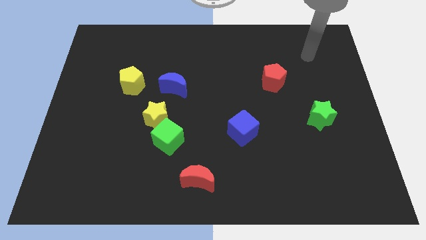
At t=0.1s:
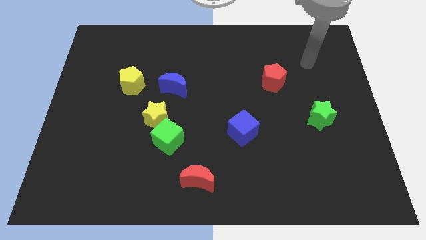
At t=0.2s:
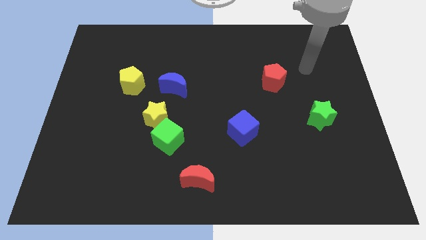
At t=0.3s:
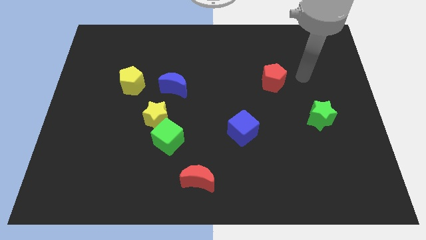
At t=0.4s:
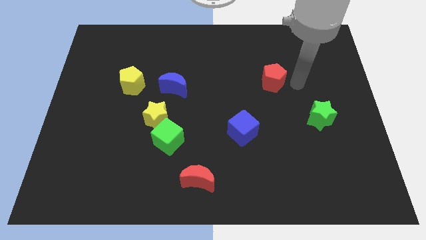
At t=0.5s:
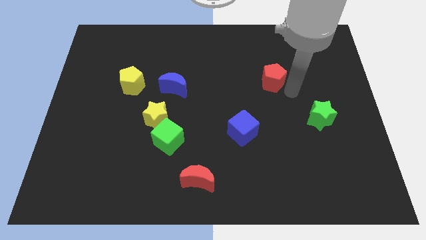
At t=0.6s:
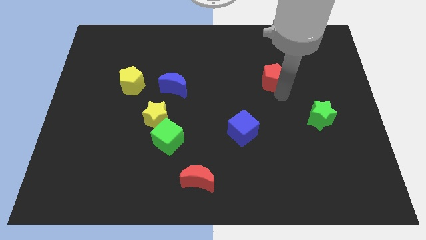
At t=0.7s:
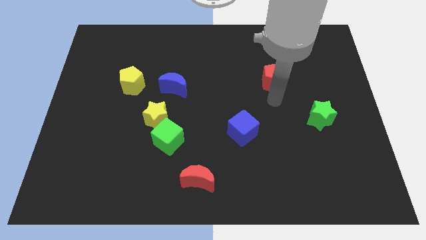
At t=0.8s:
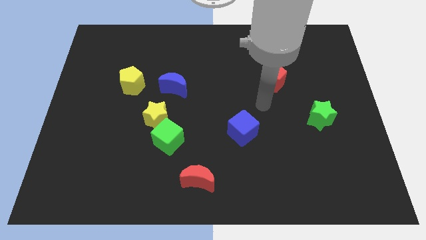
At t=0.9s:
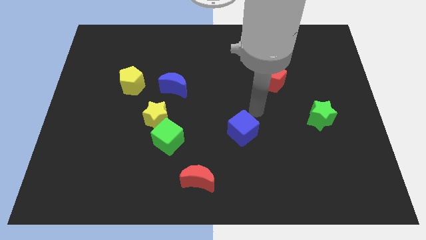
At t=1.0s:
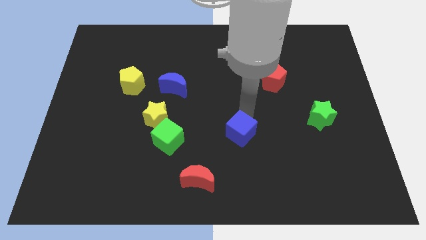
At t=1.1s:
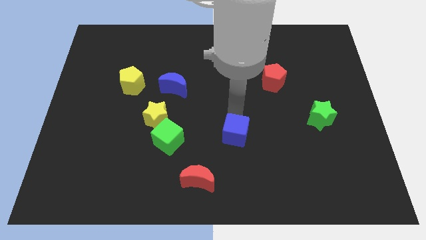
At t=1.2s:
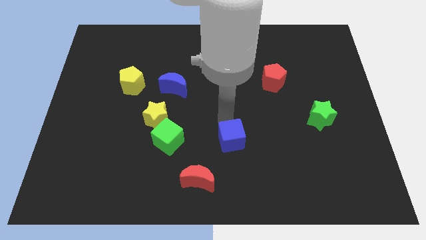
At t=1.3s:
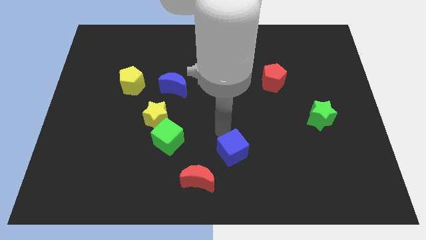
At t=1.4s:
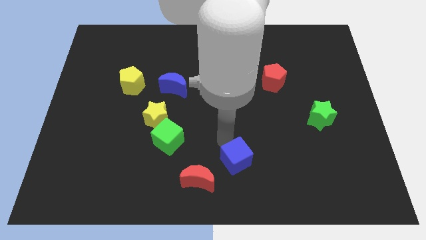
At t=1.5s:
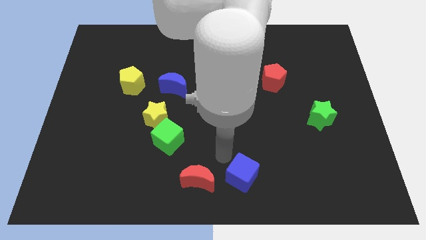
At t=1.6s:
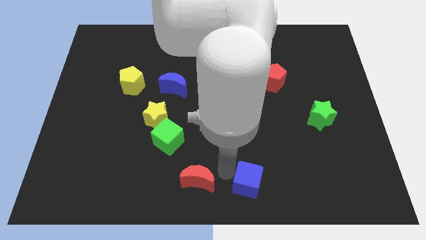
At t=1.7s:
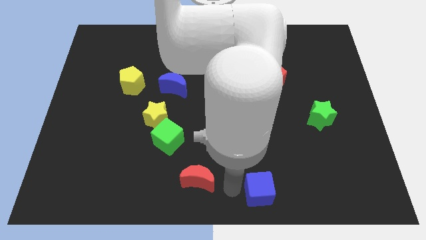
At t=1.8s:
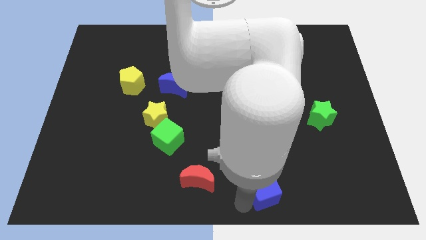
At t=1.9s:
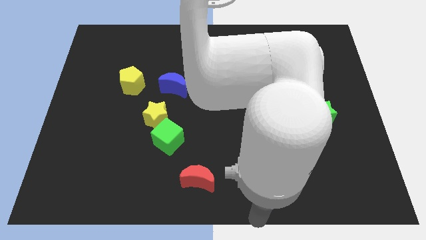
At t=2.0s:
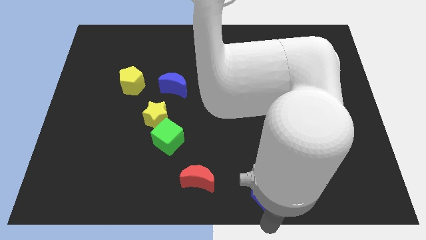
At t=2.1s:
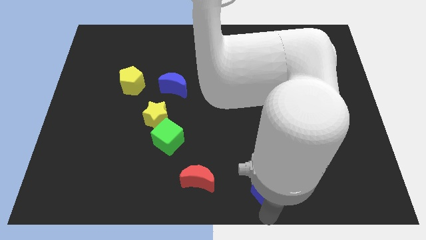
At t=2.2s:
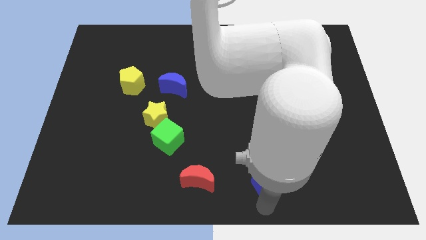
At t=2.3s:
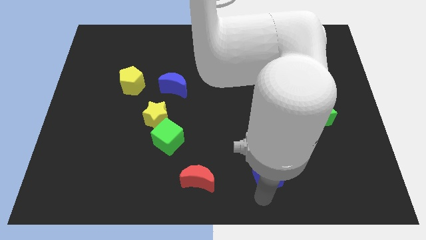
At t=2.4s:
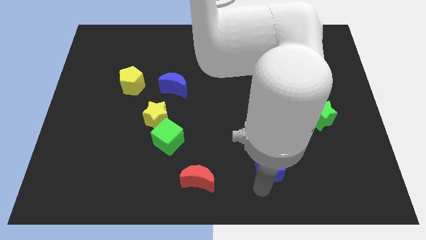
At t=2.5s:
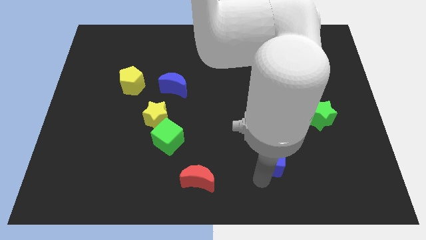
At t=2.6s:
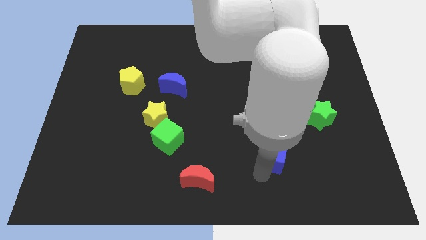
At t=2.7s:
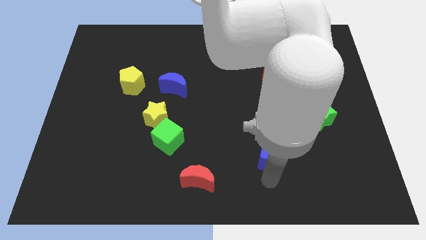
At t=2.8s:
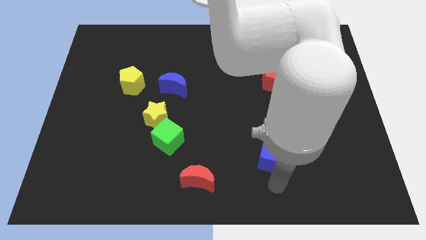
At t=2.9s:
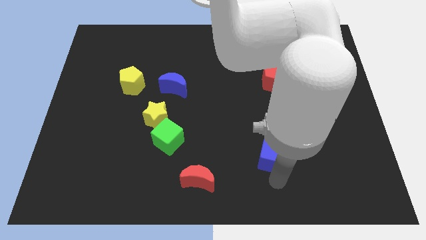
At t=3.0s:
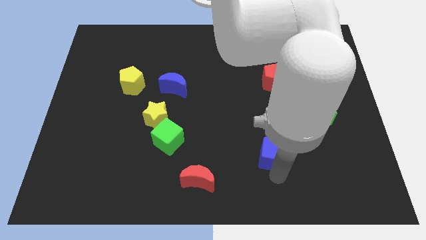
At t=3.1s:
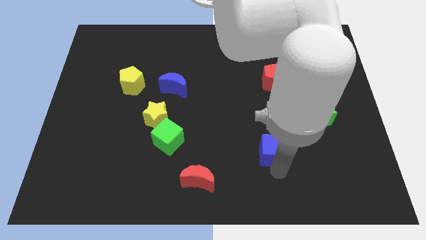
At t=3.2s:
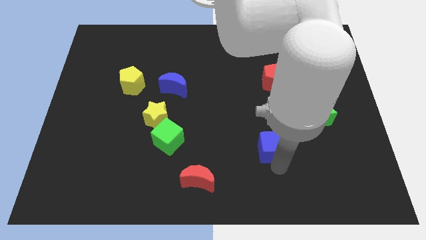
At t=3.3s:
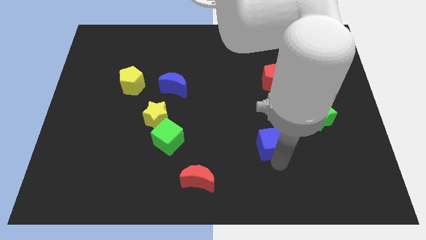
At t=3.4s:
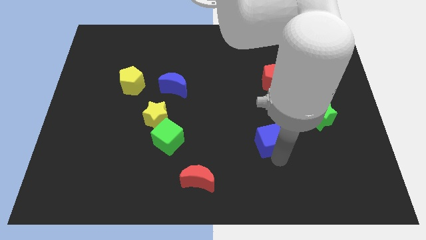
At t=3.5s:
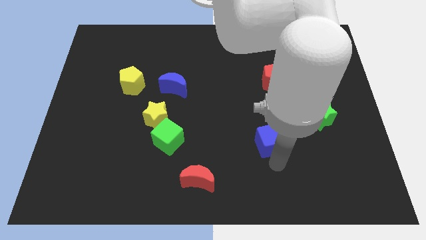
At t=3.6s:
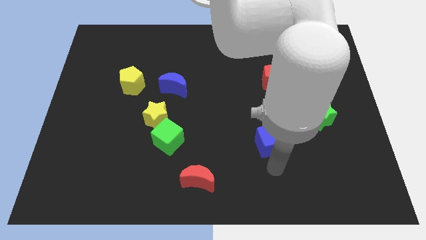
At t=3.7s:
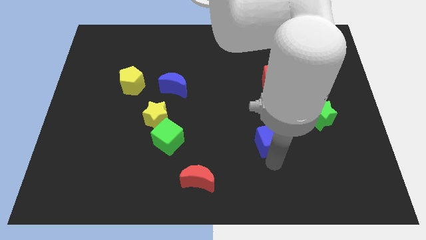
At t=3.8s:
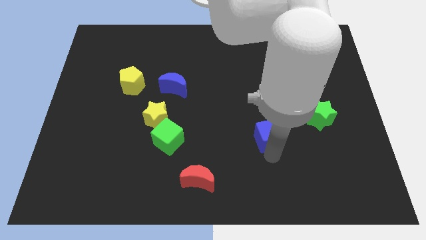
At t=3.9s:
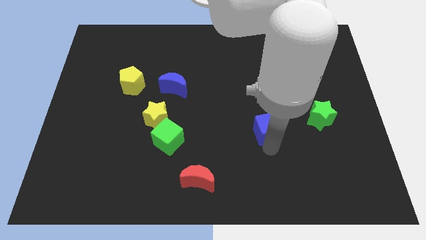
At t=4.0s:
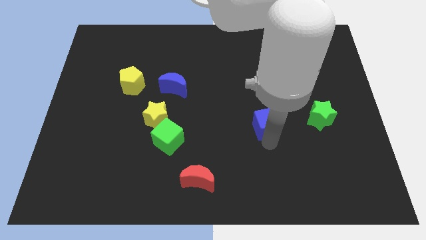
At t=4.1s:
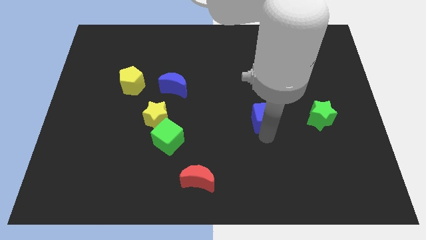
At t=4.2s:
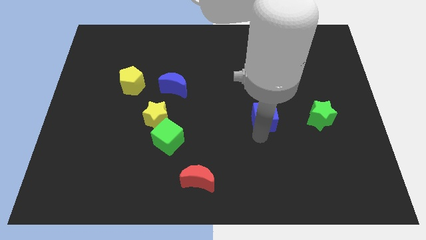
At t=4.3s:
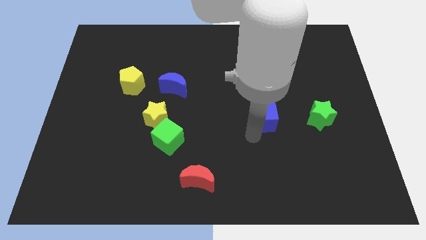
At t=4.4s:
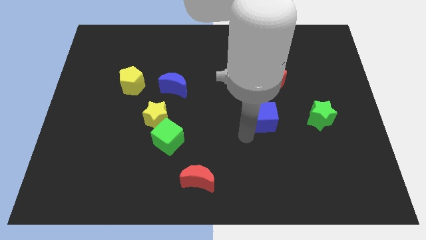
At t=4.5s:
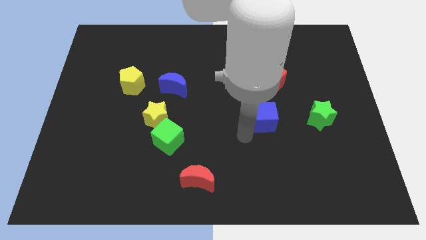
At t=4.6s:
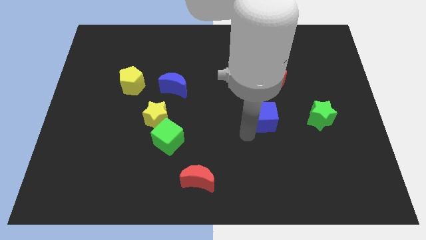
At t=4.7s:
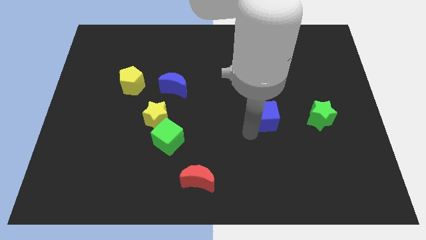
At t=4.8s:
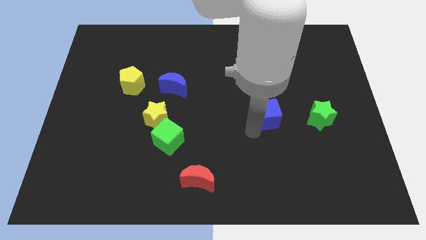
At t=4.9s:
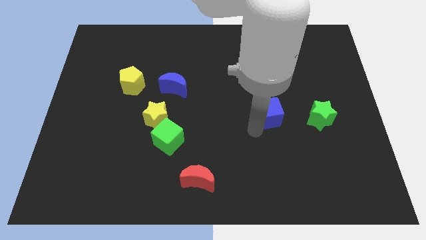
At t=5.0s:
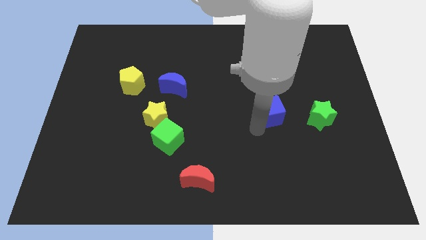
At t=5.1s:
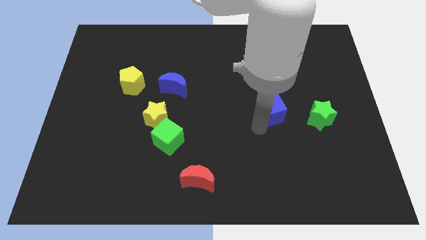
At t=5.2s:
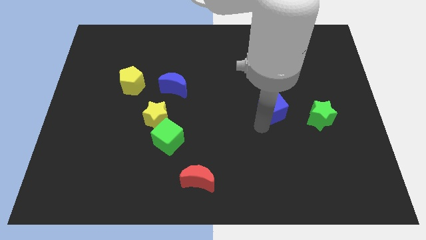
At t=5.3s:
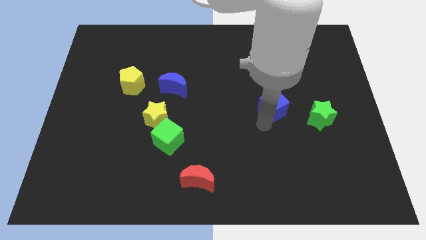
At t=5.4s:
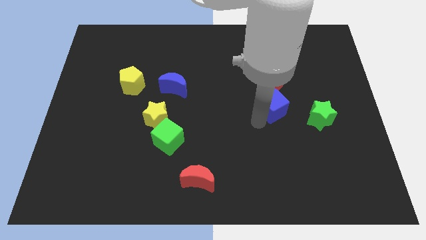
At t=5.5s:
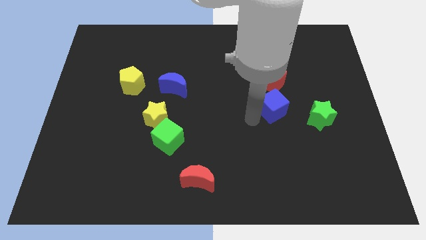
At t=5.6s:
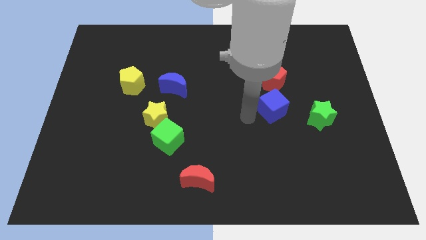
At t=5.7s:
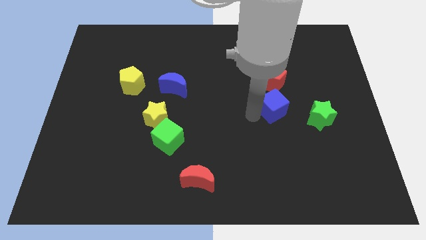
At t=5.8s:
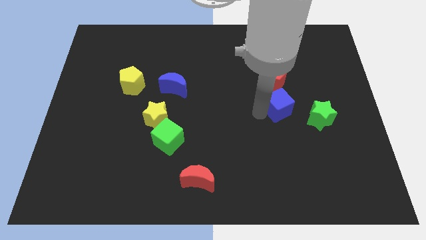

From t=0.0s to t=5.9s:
put the blue cube to the top left of the green star

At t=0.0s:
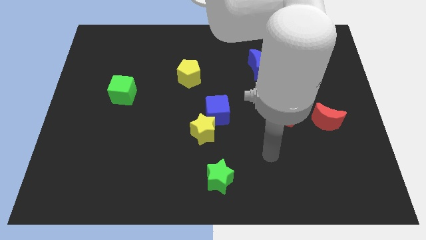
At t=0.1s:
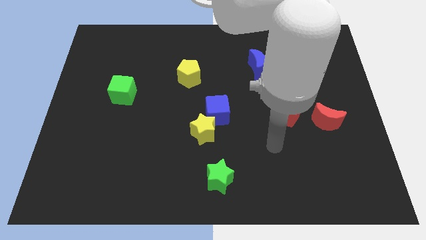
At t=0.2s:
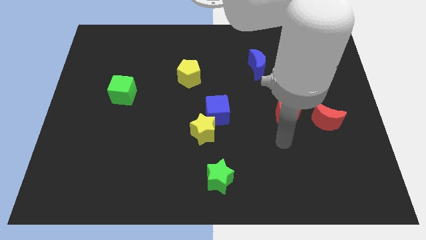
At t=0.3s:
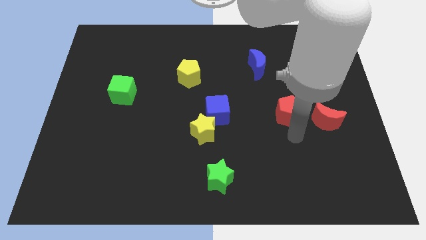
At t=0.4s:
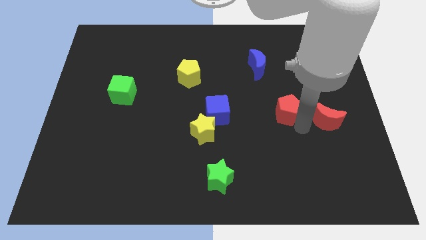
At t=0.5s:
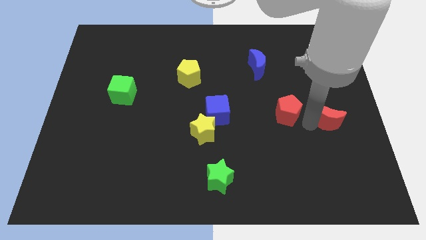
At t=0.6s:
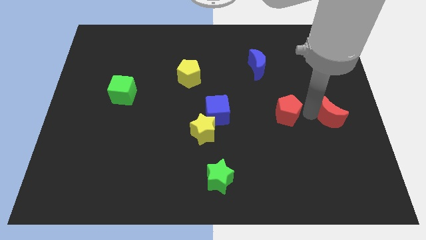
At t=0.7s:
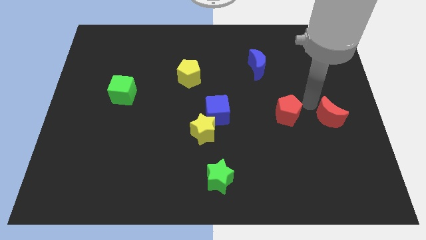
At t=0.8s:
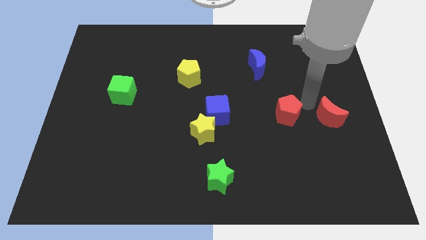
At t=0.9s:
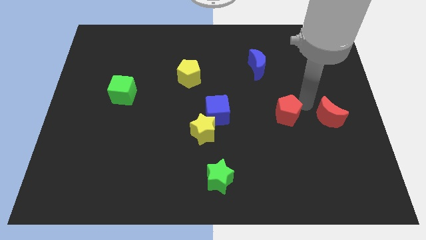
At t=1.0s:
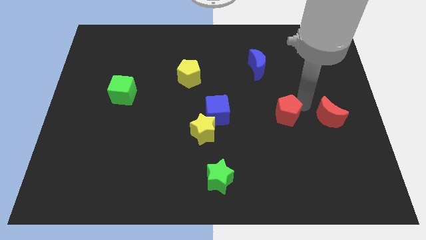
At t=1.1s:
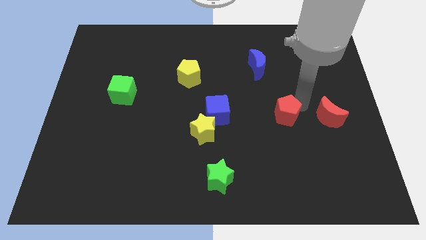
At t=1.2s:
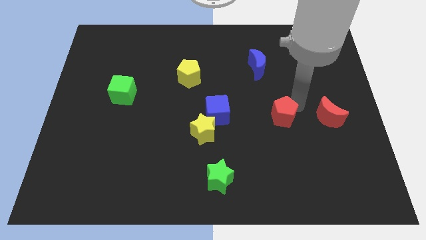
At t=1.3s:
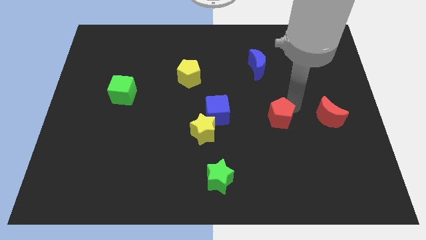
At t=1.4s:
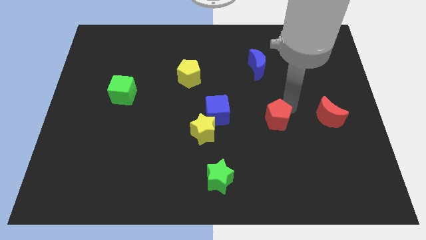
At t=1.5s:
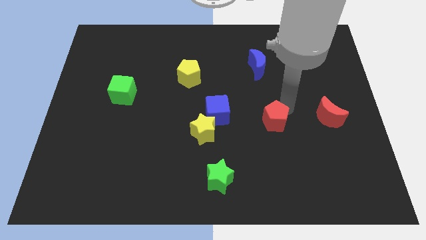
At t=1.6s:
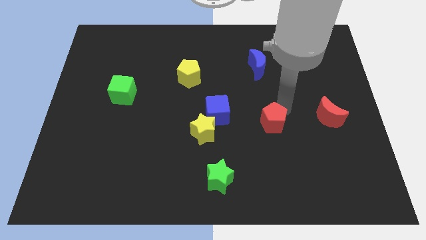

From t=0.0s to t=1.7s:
put the red pentagon to the right of the yellow star
